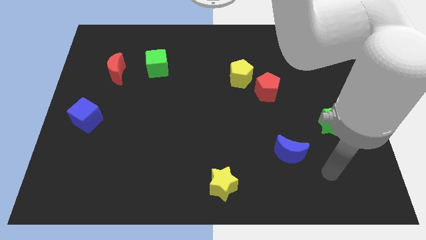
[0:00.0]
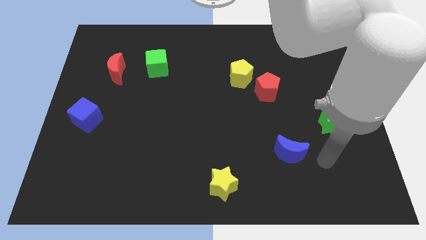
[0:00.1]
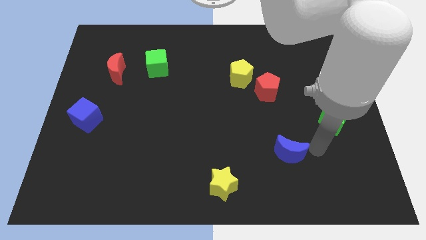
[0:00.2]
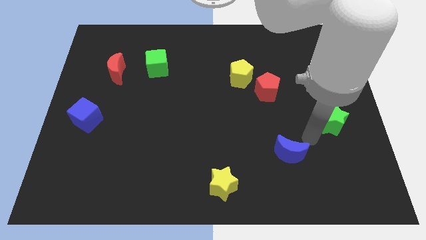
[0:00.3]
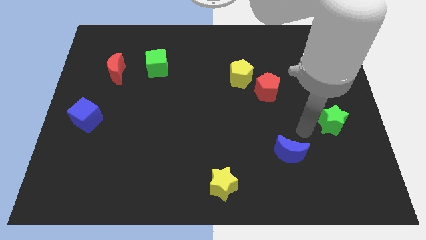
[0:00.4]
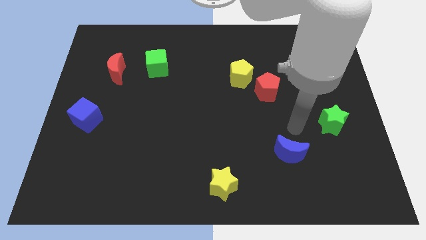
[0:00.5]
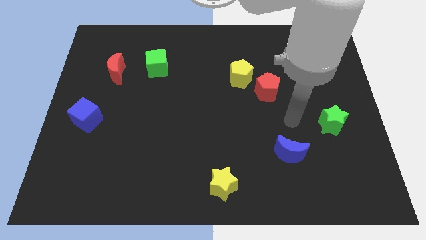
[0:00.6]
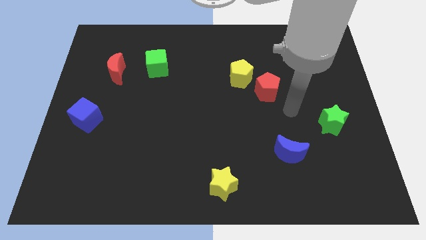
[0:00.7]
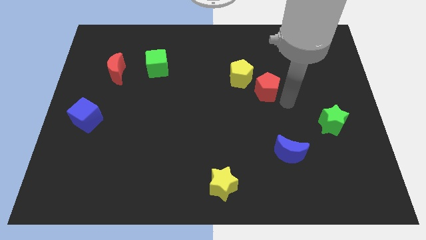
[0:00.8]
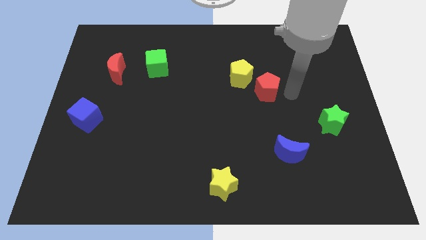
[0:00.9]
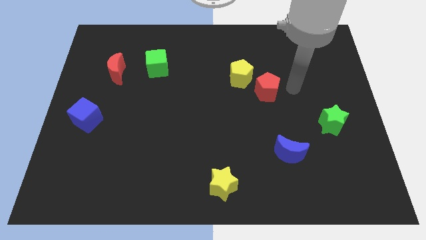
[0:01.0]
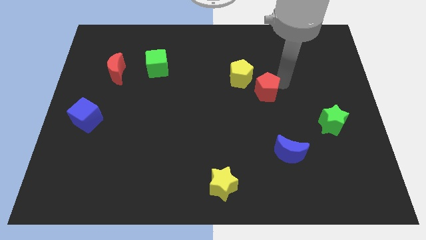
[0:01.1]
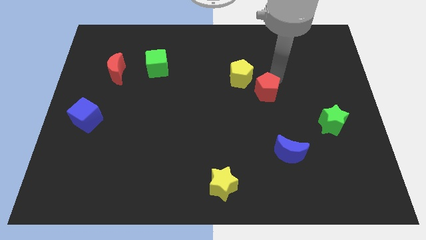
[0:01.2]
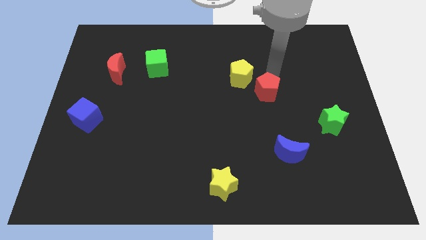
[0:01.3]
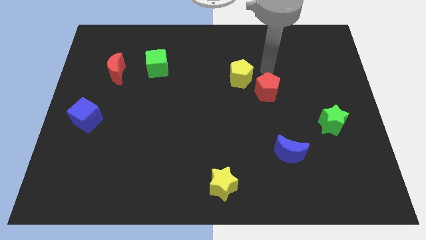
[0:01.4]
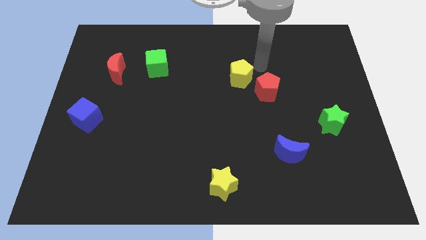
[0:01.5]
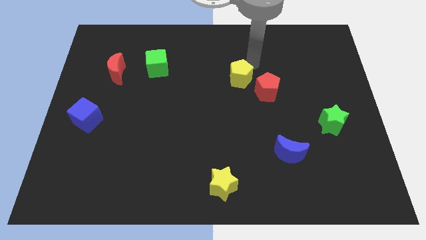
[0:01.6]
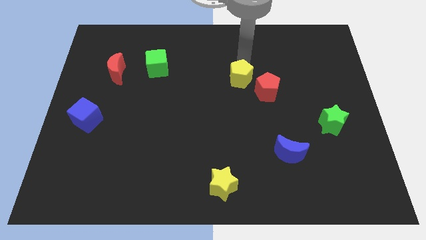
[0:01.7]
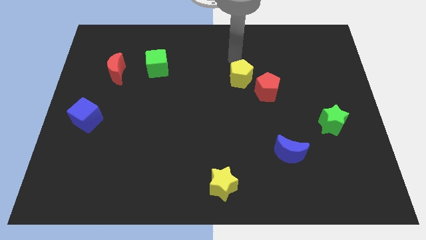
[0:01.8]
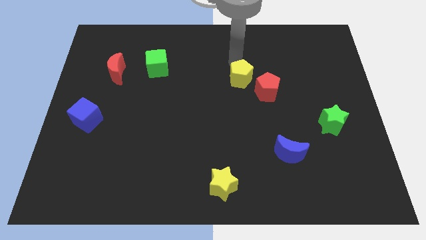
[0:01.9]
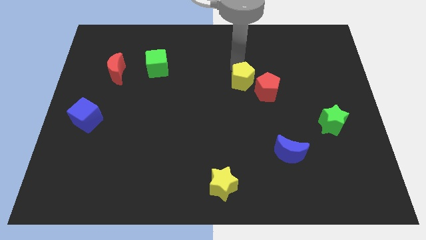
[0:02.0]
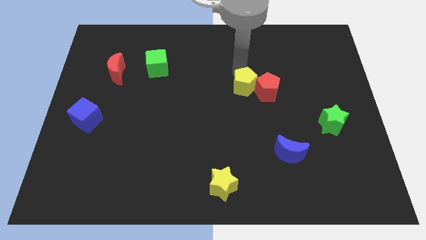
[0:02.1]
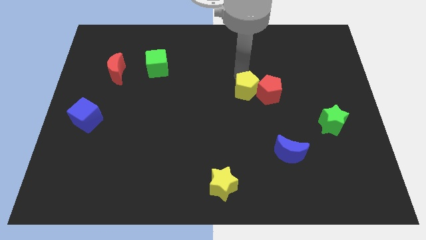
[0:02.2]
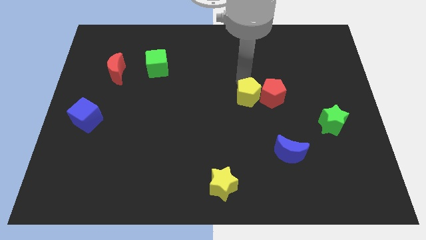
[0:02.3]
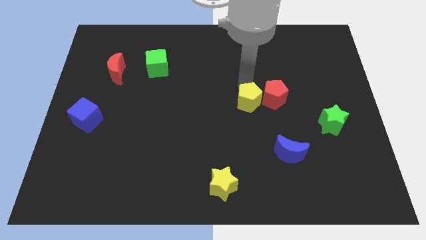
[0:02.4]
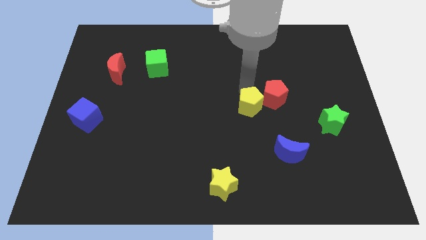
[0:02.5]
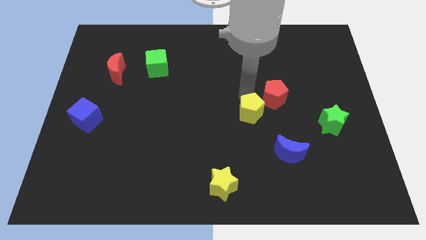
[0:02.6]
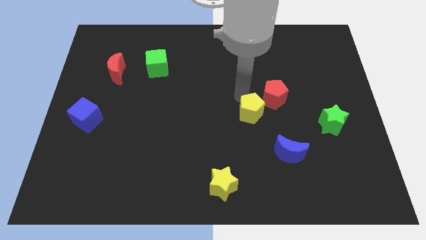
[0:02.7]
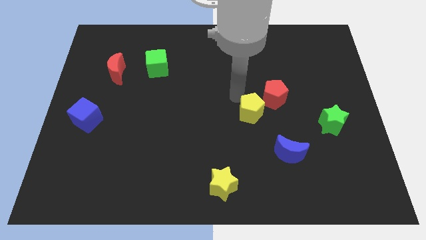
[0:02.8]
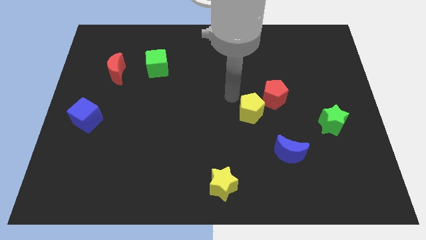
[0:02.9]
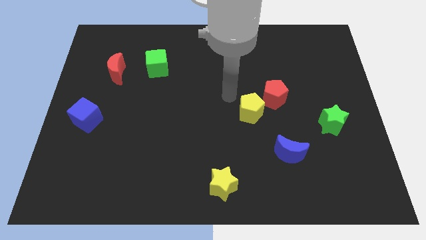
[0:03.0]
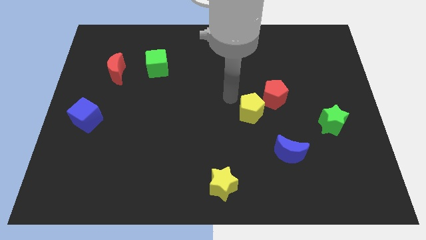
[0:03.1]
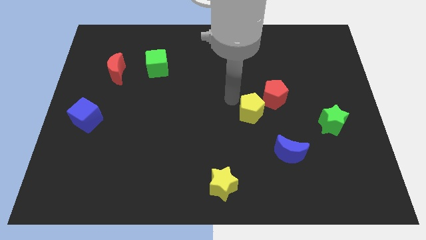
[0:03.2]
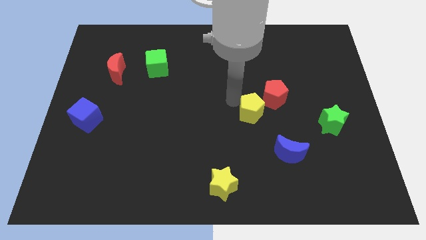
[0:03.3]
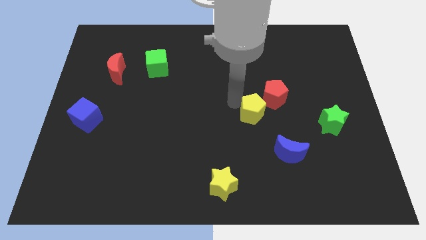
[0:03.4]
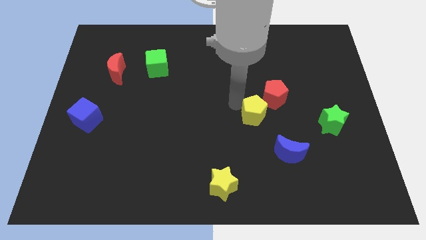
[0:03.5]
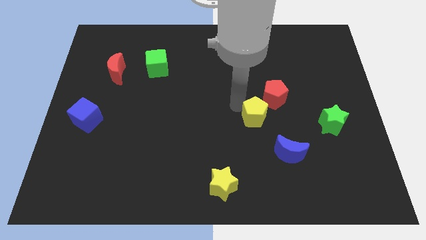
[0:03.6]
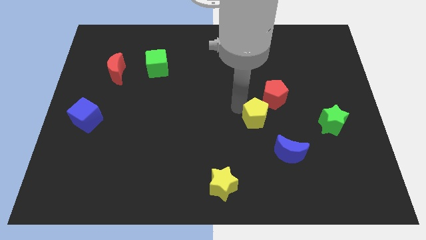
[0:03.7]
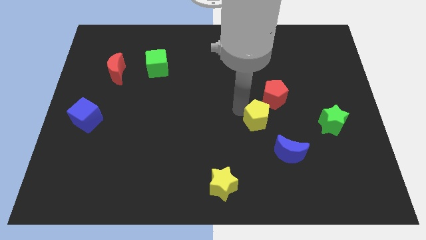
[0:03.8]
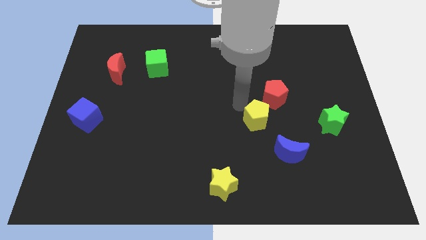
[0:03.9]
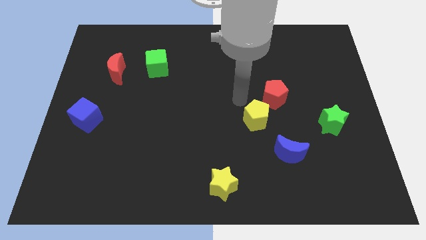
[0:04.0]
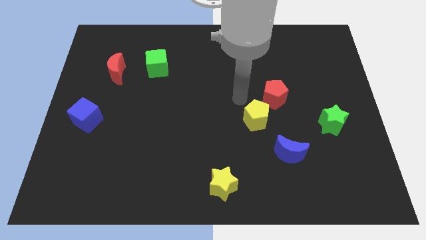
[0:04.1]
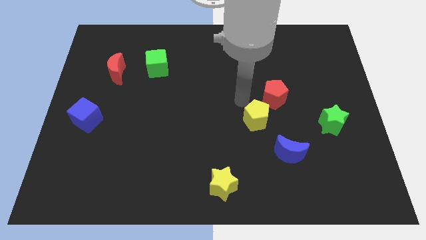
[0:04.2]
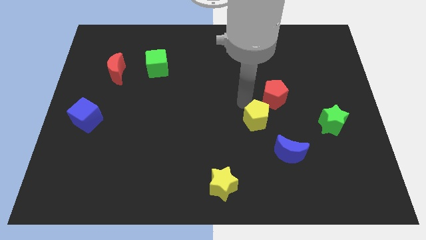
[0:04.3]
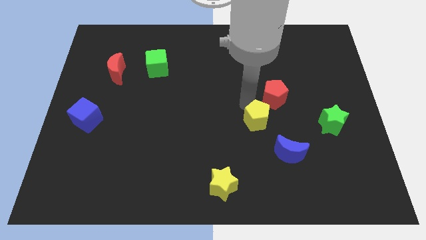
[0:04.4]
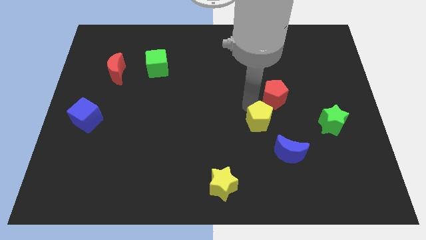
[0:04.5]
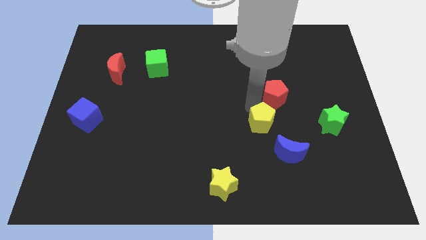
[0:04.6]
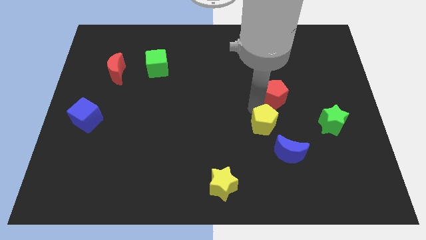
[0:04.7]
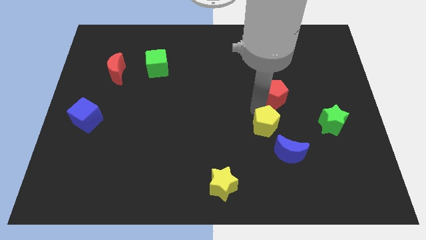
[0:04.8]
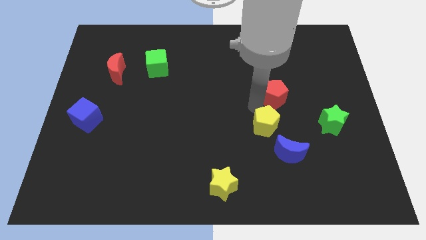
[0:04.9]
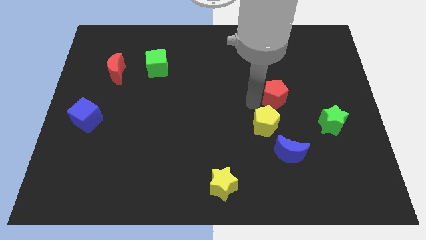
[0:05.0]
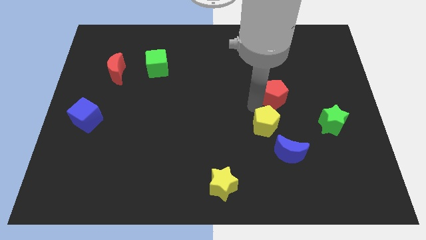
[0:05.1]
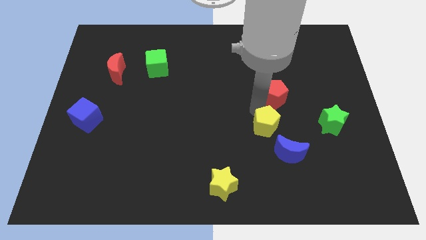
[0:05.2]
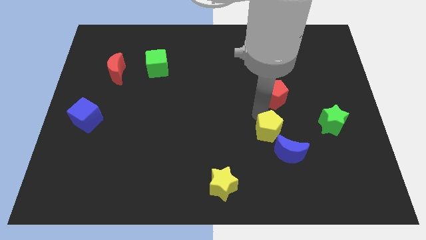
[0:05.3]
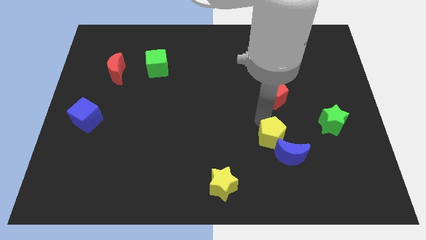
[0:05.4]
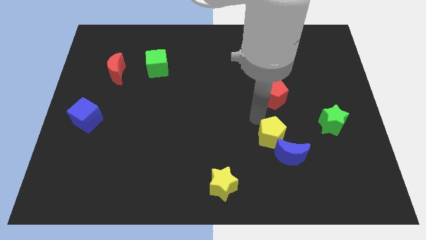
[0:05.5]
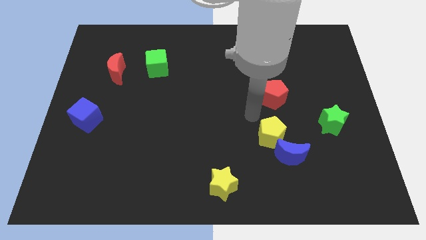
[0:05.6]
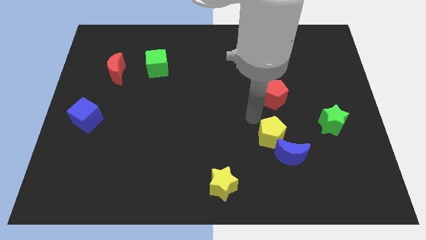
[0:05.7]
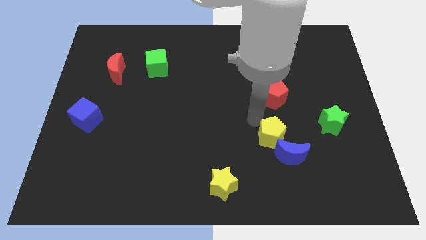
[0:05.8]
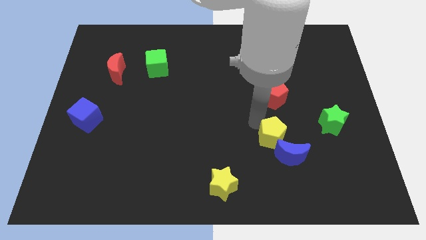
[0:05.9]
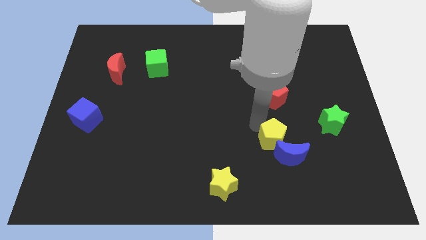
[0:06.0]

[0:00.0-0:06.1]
move the yellow pentagon to the blue moon

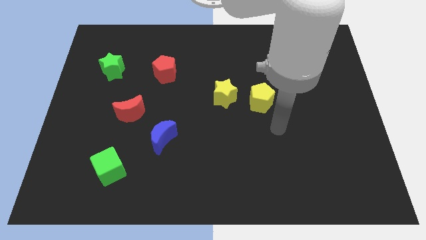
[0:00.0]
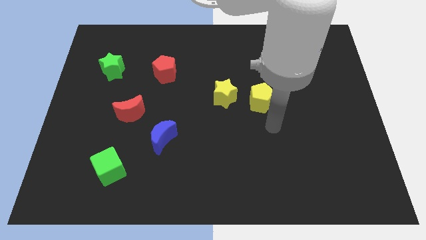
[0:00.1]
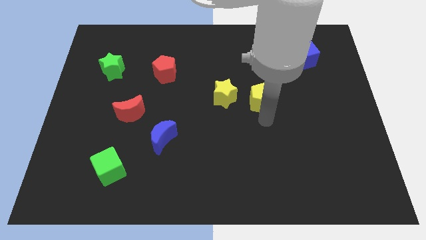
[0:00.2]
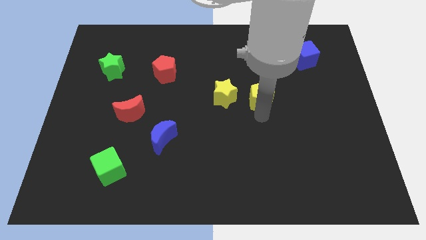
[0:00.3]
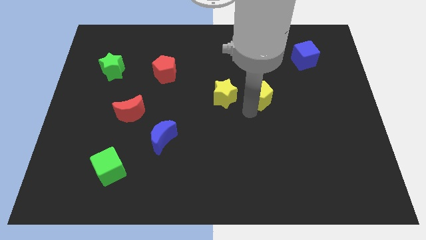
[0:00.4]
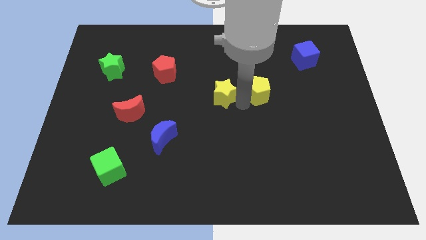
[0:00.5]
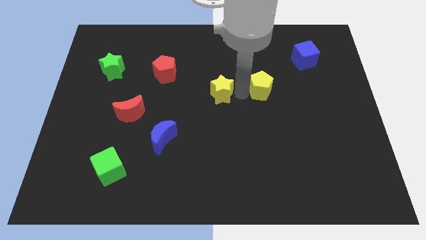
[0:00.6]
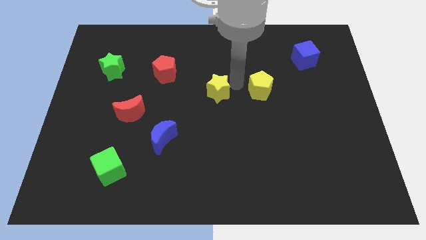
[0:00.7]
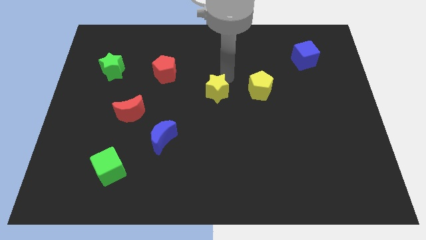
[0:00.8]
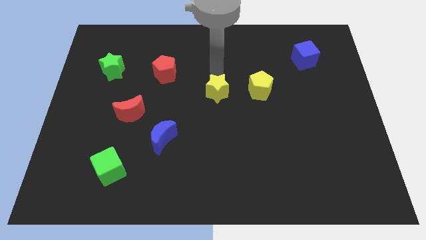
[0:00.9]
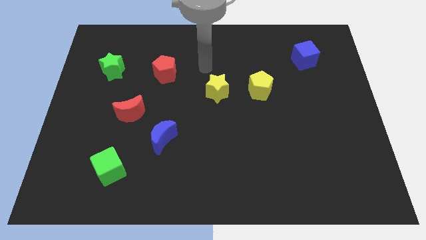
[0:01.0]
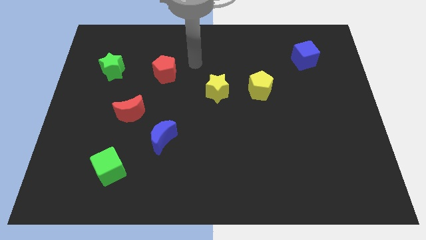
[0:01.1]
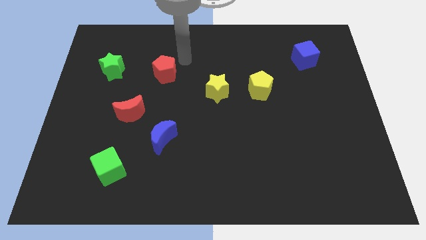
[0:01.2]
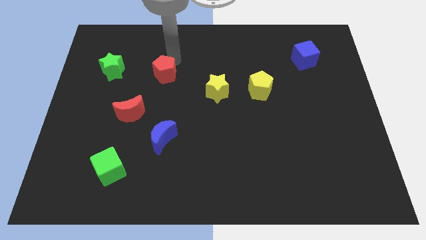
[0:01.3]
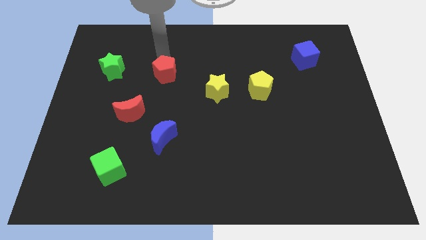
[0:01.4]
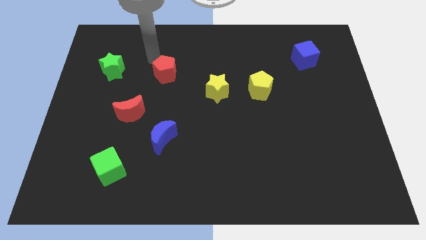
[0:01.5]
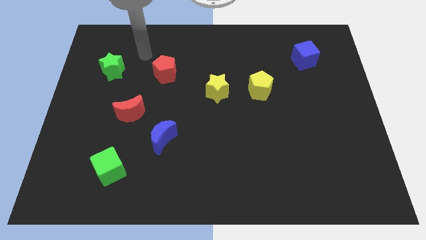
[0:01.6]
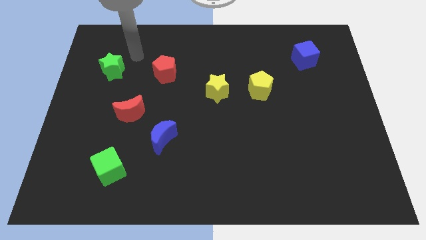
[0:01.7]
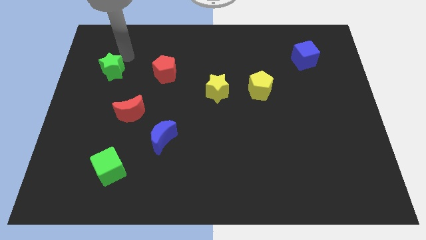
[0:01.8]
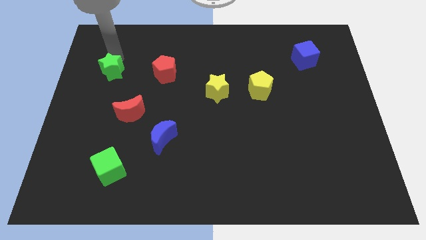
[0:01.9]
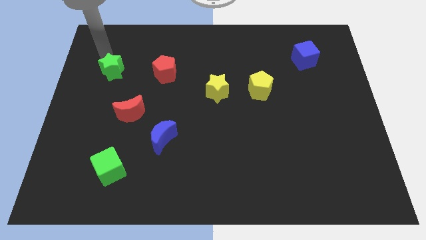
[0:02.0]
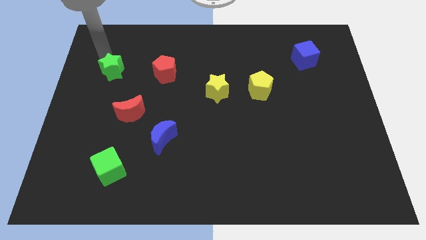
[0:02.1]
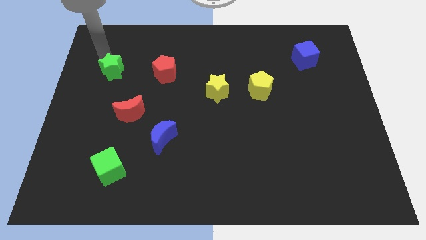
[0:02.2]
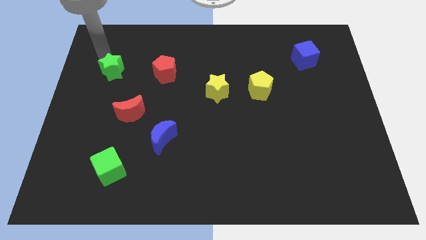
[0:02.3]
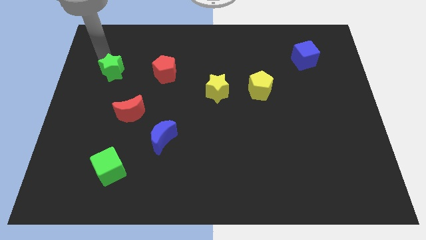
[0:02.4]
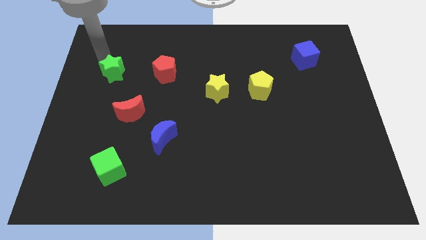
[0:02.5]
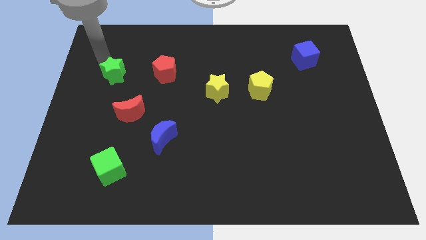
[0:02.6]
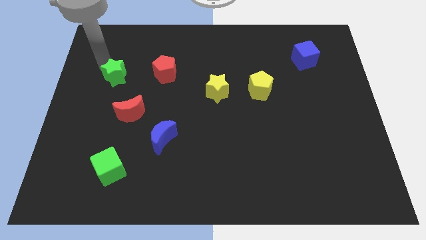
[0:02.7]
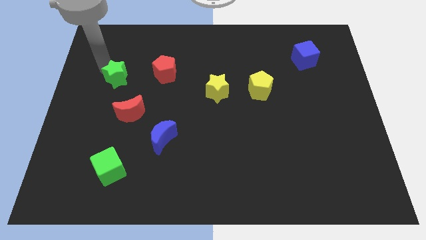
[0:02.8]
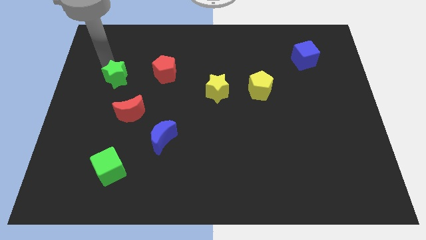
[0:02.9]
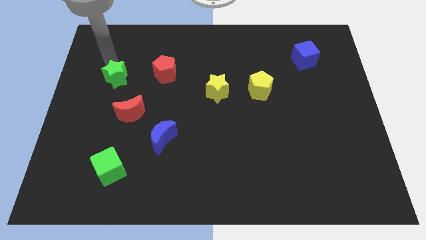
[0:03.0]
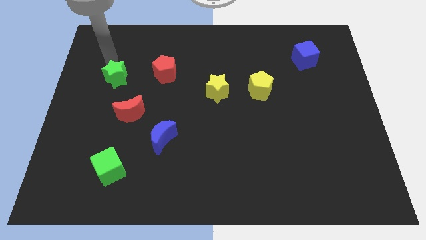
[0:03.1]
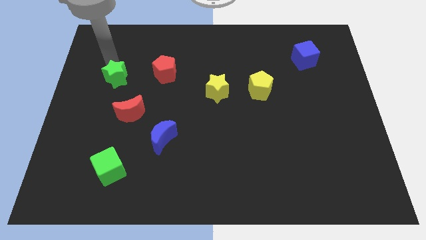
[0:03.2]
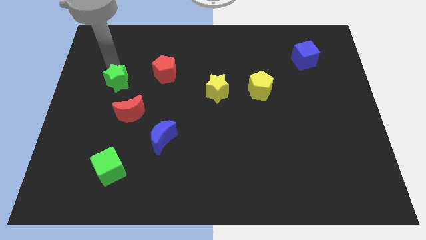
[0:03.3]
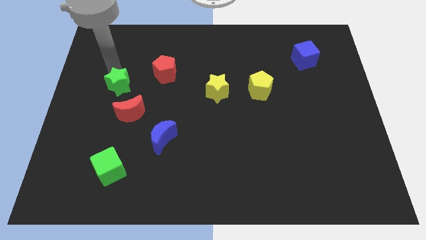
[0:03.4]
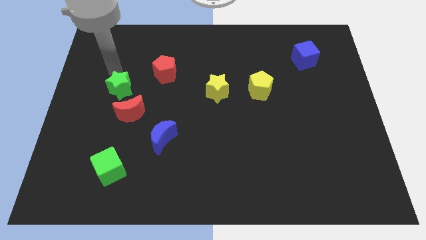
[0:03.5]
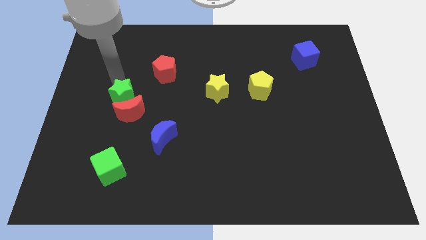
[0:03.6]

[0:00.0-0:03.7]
slide the green star next to the red moon
